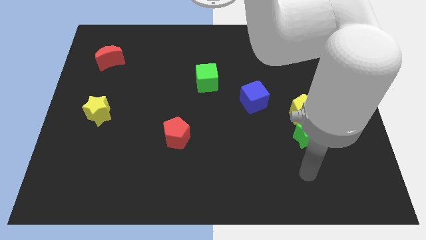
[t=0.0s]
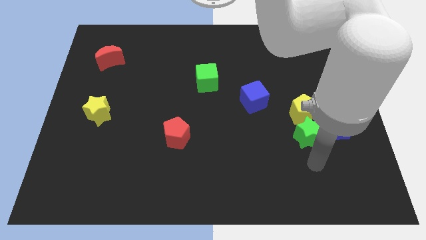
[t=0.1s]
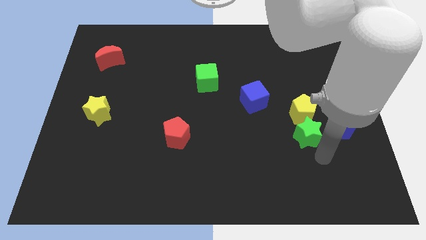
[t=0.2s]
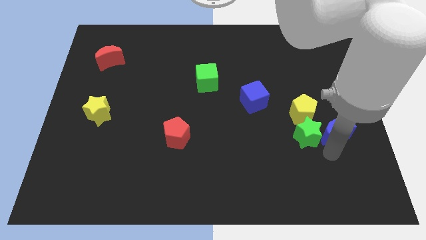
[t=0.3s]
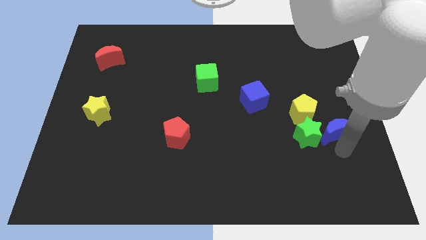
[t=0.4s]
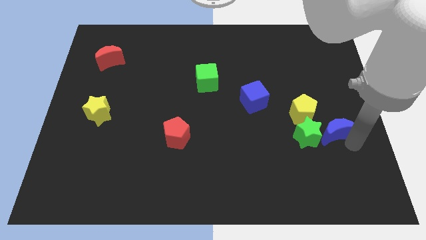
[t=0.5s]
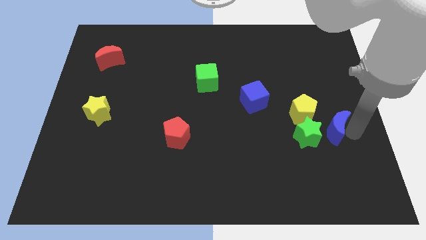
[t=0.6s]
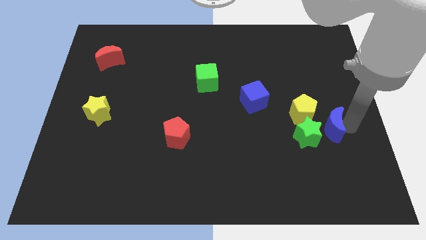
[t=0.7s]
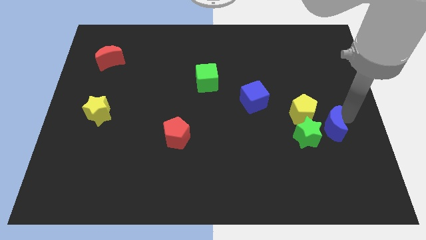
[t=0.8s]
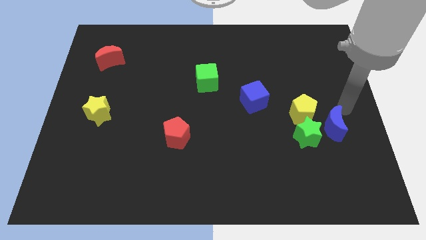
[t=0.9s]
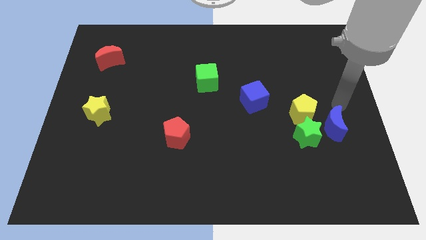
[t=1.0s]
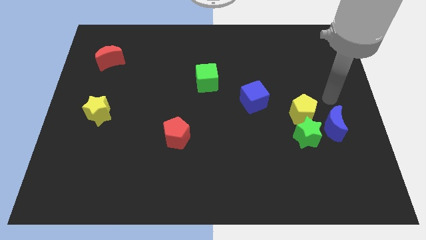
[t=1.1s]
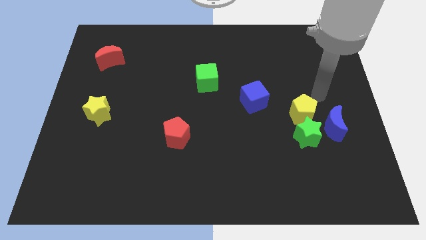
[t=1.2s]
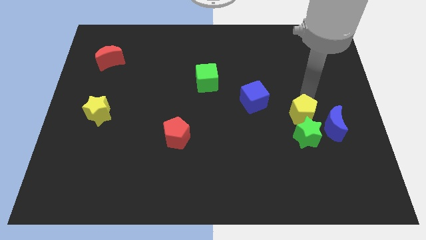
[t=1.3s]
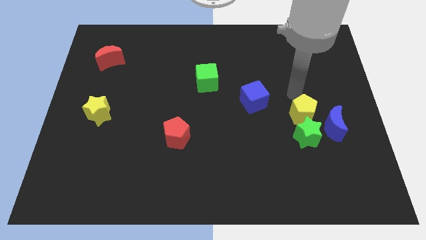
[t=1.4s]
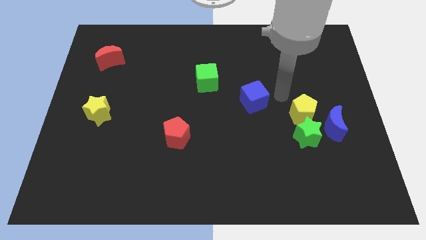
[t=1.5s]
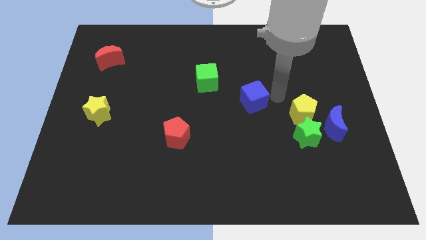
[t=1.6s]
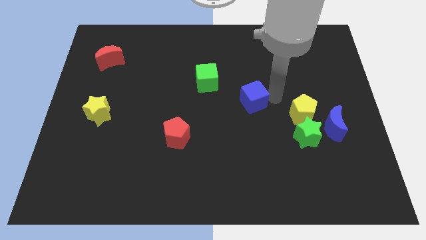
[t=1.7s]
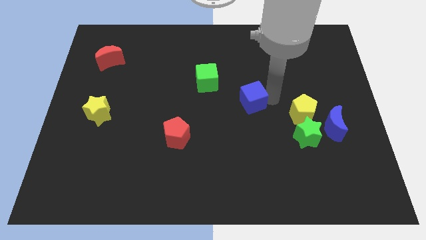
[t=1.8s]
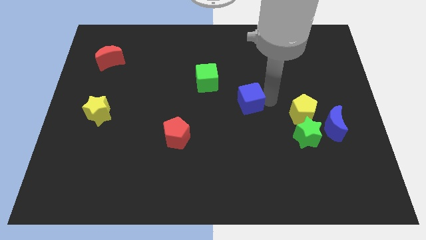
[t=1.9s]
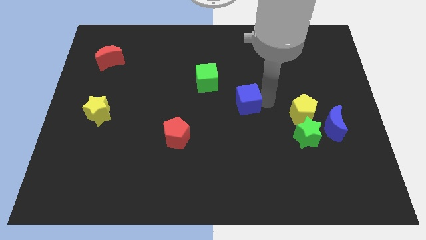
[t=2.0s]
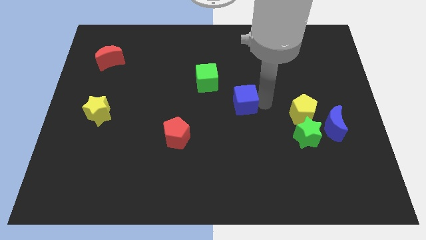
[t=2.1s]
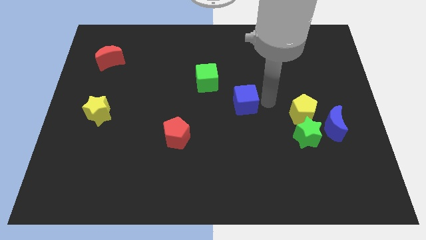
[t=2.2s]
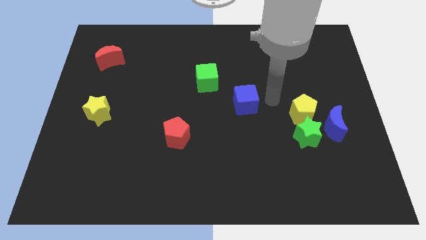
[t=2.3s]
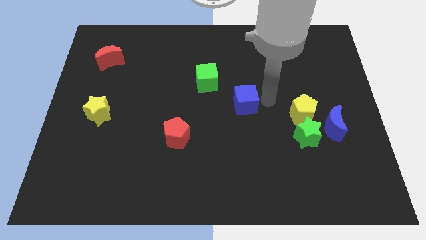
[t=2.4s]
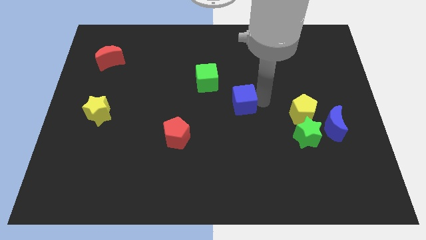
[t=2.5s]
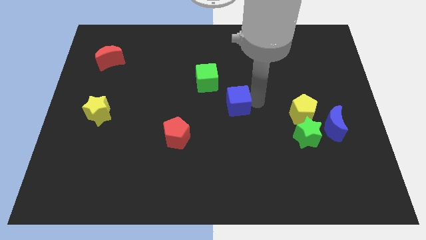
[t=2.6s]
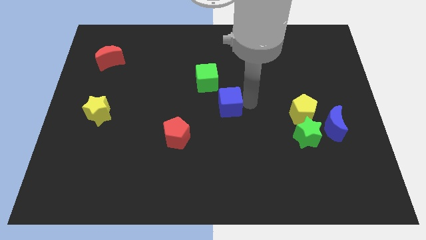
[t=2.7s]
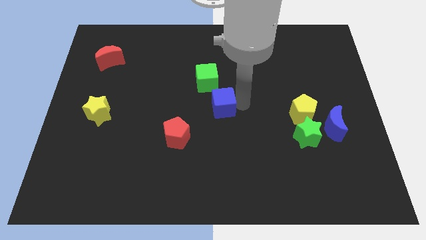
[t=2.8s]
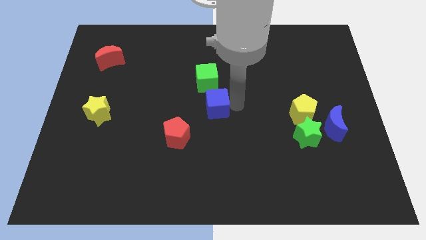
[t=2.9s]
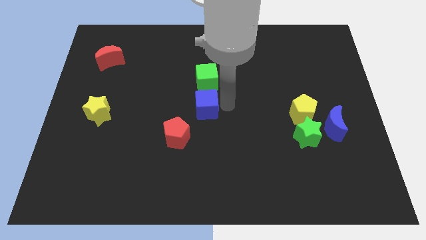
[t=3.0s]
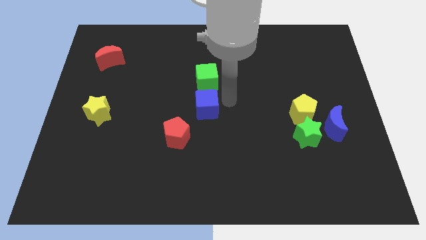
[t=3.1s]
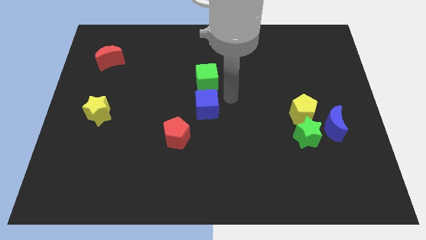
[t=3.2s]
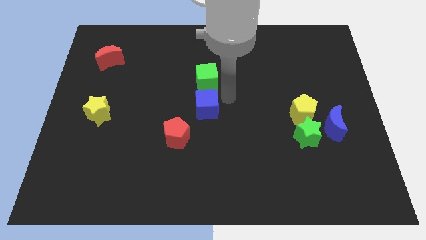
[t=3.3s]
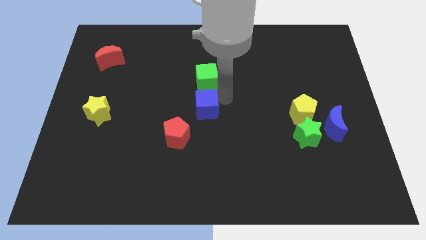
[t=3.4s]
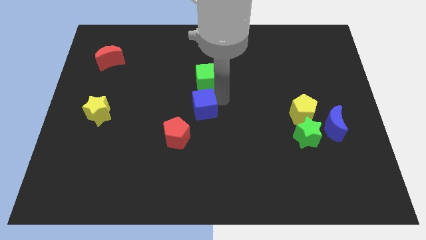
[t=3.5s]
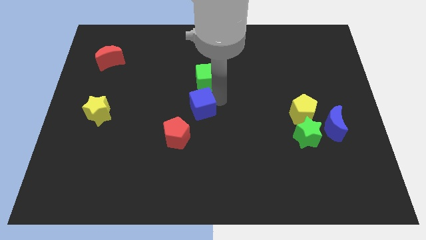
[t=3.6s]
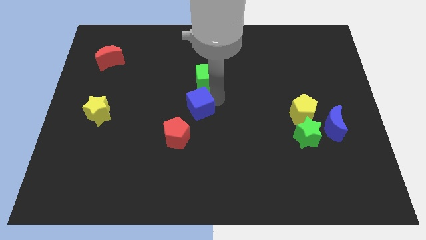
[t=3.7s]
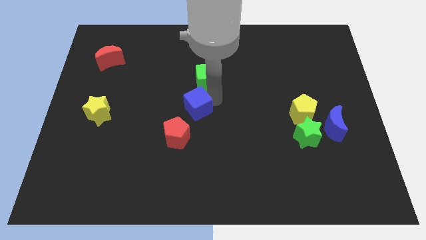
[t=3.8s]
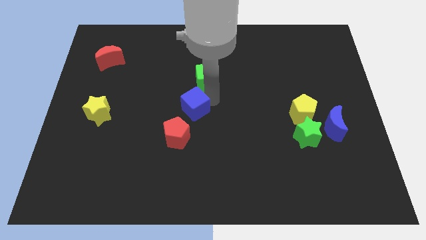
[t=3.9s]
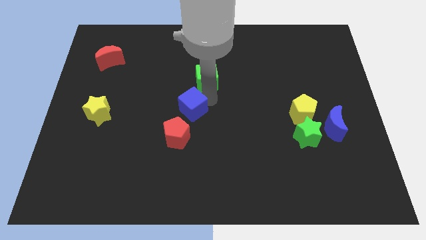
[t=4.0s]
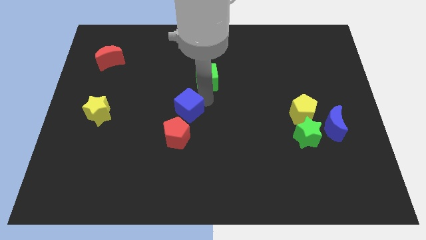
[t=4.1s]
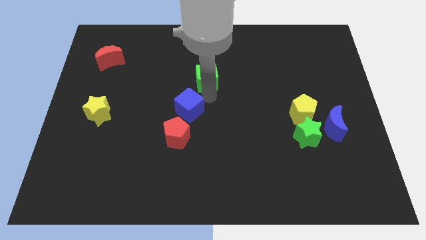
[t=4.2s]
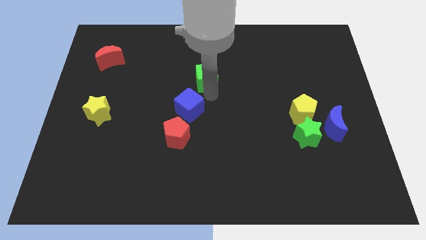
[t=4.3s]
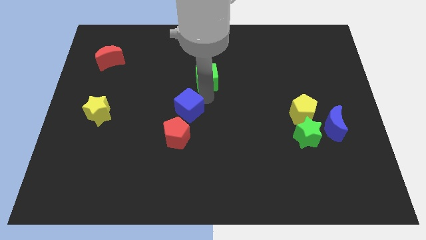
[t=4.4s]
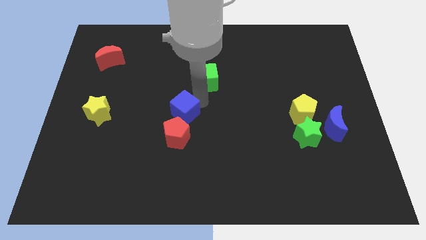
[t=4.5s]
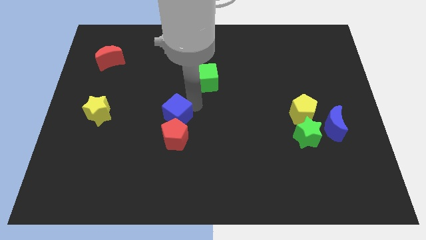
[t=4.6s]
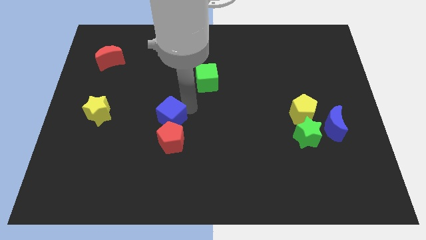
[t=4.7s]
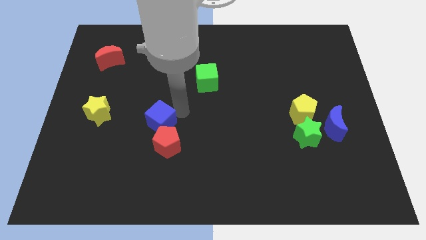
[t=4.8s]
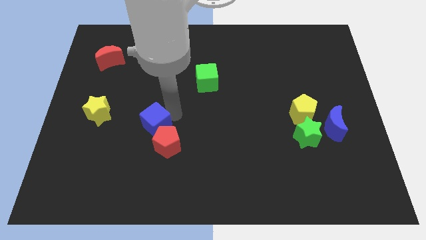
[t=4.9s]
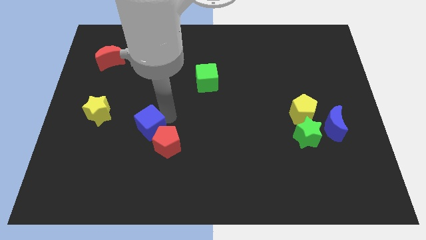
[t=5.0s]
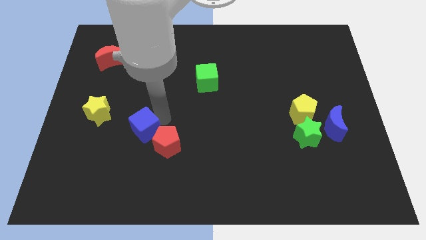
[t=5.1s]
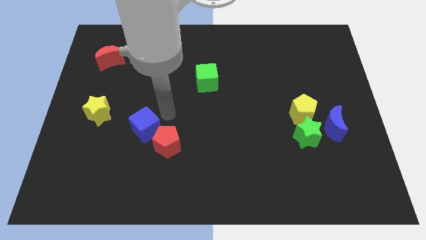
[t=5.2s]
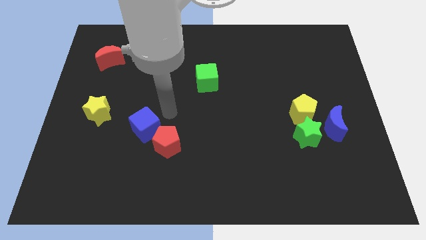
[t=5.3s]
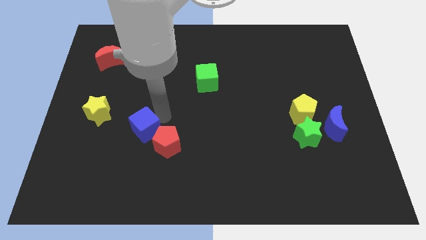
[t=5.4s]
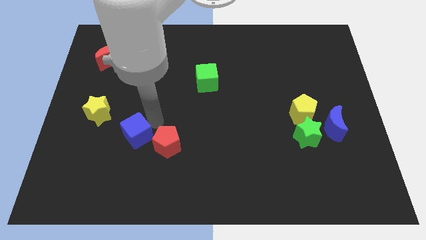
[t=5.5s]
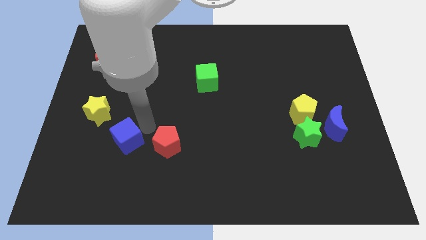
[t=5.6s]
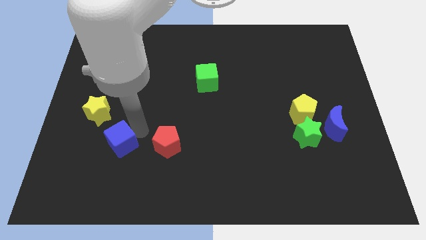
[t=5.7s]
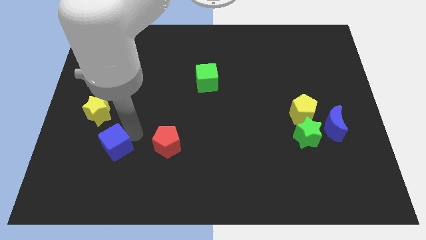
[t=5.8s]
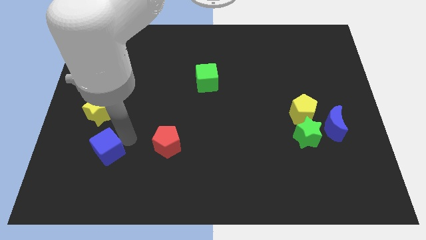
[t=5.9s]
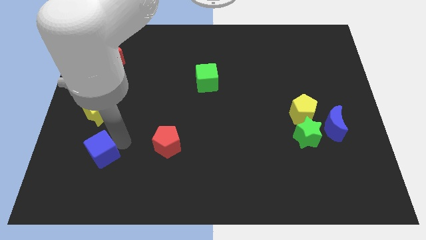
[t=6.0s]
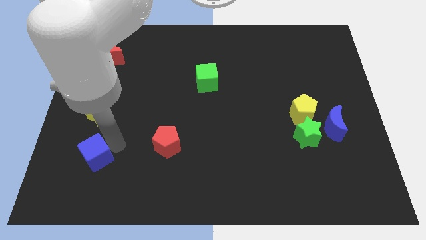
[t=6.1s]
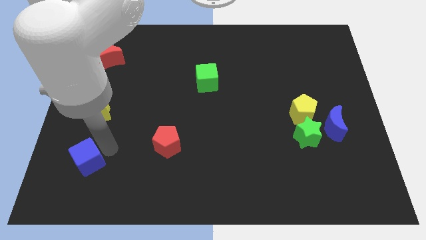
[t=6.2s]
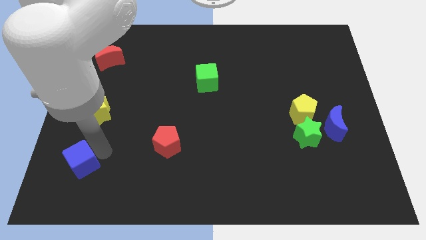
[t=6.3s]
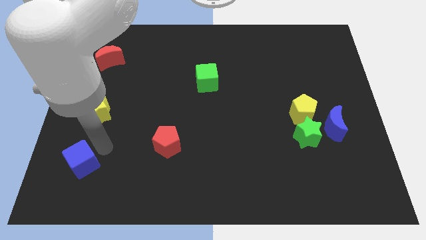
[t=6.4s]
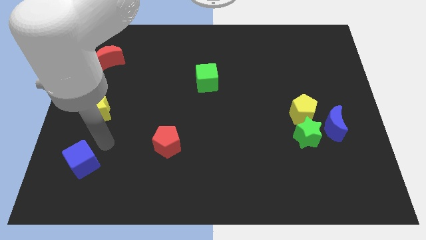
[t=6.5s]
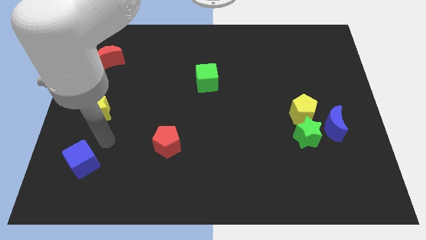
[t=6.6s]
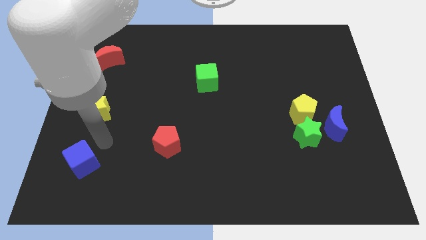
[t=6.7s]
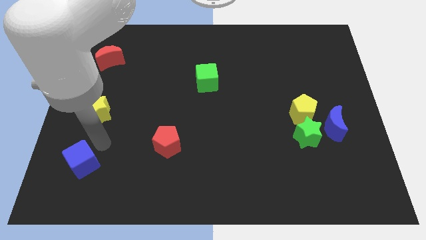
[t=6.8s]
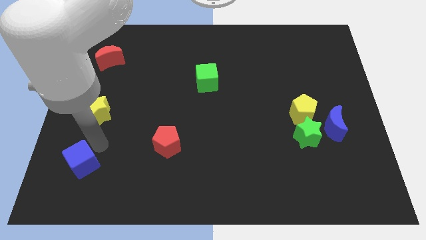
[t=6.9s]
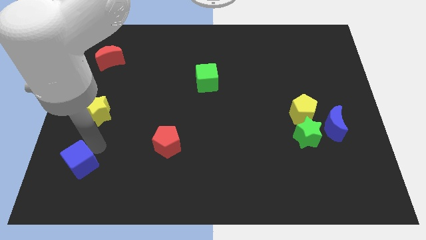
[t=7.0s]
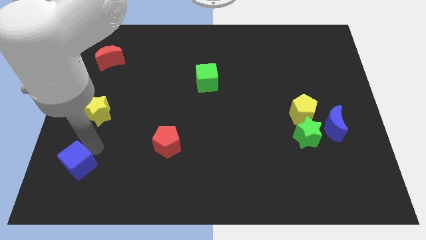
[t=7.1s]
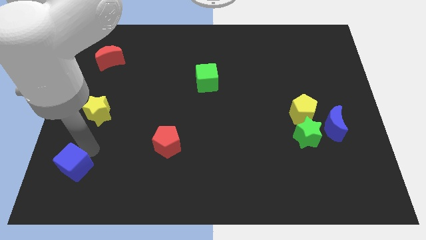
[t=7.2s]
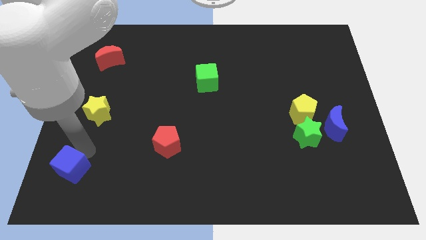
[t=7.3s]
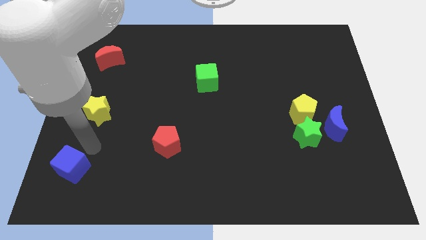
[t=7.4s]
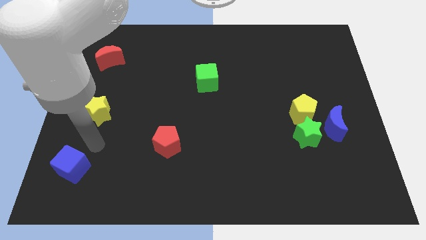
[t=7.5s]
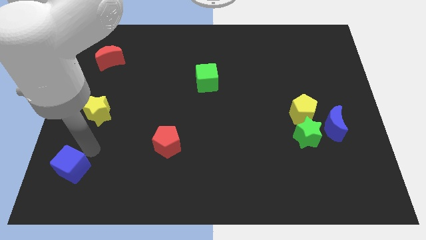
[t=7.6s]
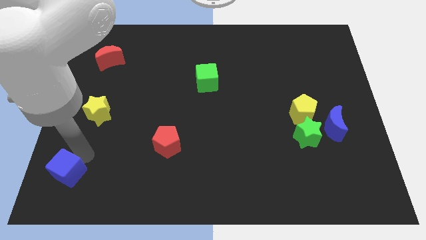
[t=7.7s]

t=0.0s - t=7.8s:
slide the blue cube to the bottom left corner
